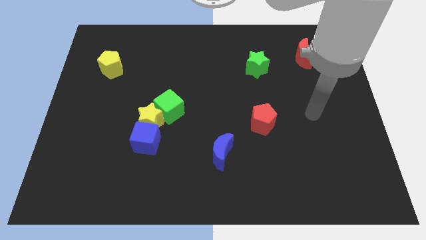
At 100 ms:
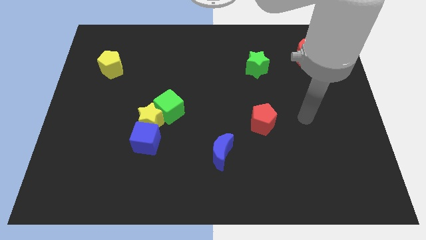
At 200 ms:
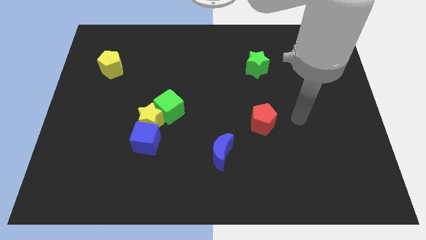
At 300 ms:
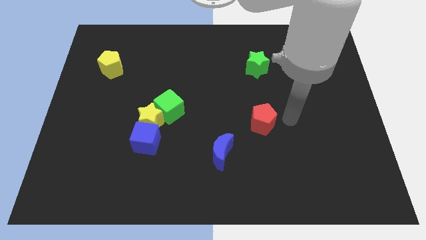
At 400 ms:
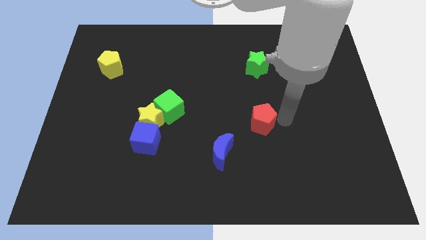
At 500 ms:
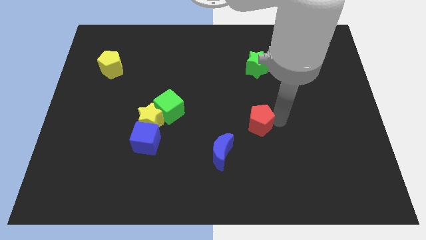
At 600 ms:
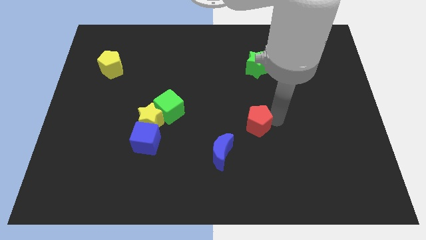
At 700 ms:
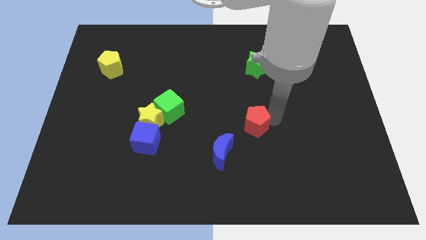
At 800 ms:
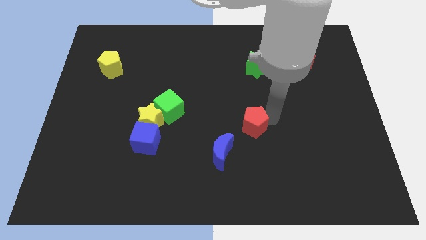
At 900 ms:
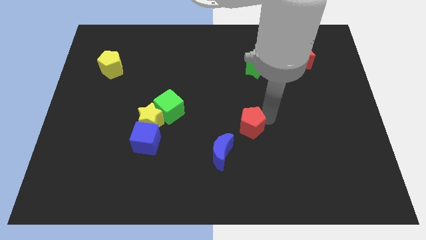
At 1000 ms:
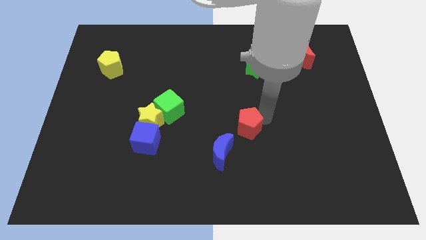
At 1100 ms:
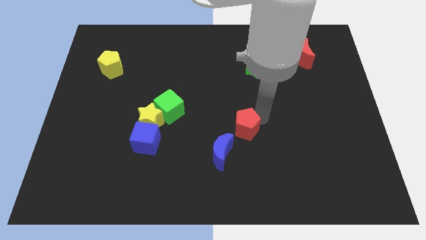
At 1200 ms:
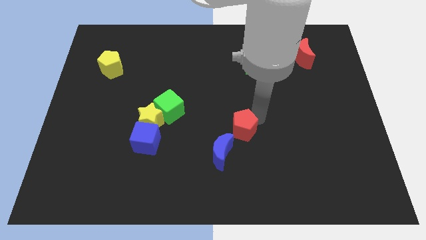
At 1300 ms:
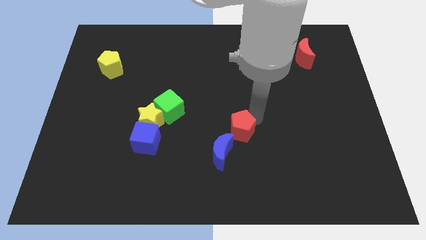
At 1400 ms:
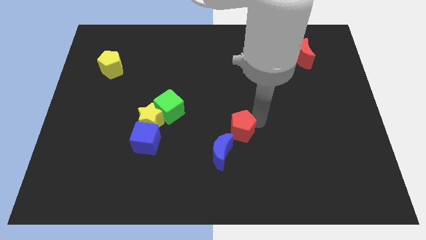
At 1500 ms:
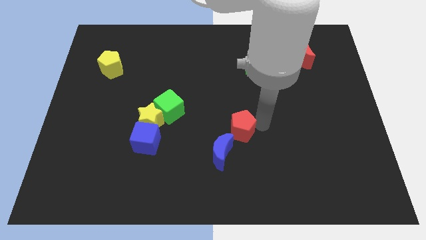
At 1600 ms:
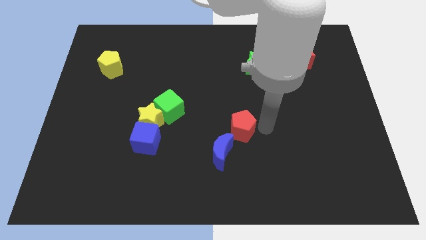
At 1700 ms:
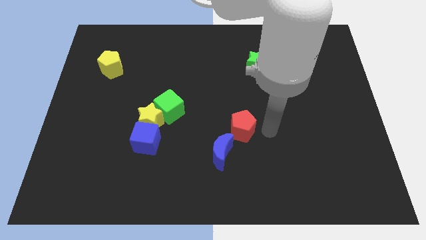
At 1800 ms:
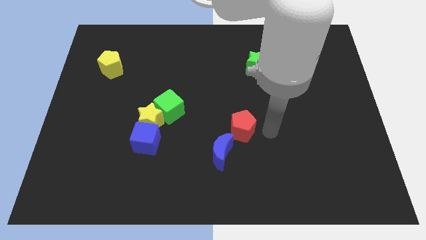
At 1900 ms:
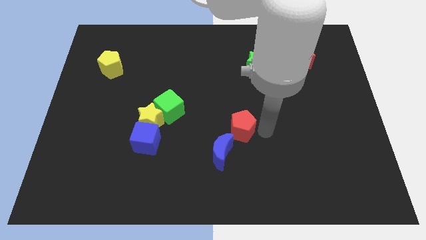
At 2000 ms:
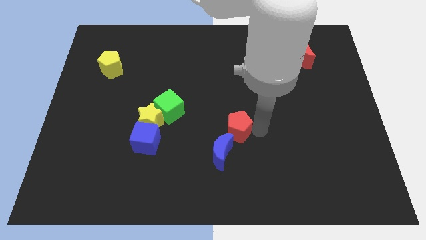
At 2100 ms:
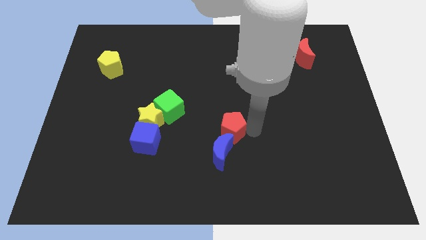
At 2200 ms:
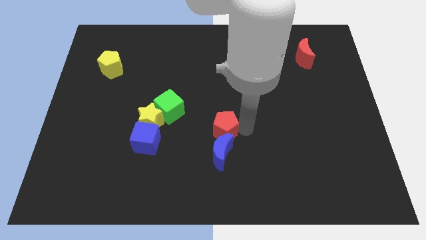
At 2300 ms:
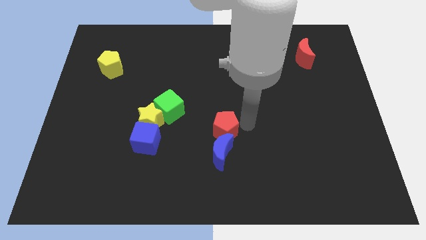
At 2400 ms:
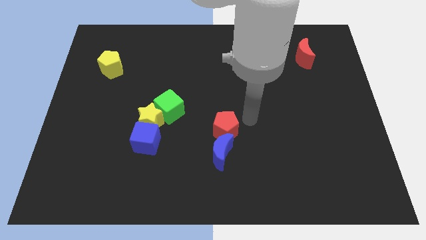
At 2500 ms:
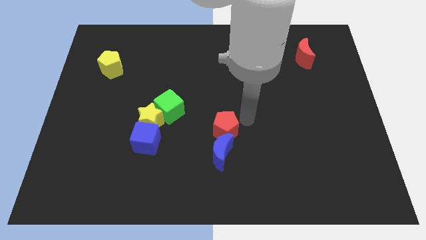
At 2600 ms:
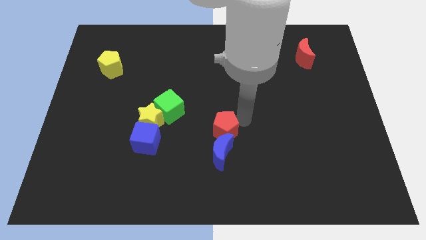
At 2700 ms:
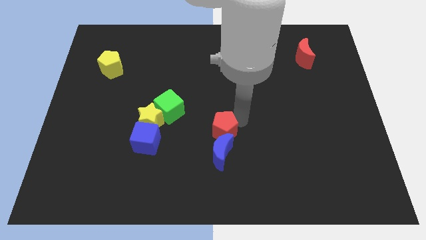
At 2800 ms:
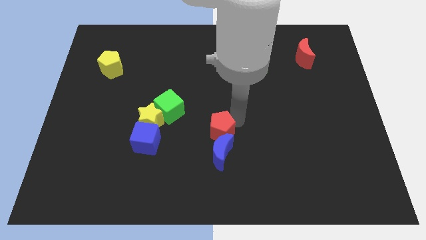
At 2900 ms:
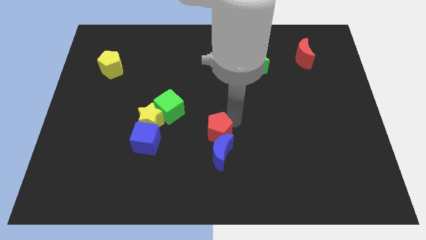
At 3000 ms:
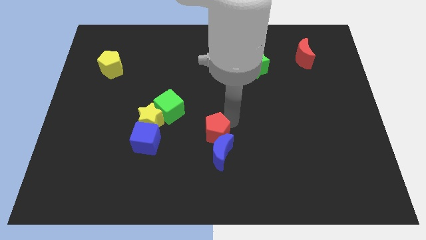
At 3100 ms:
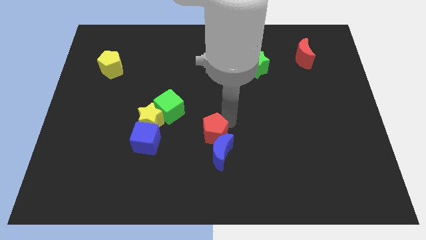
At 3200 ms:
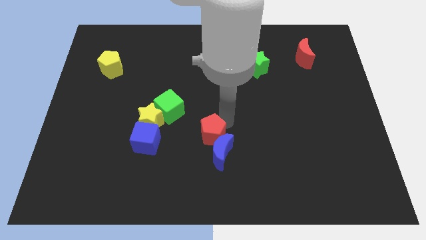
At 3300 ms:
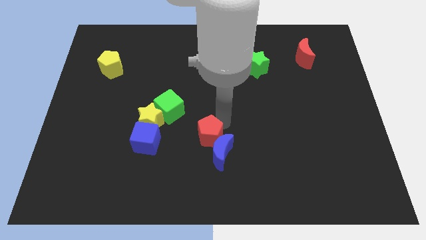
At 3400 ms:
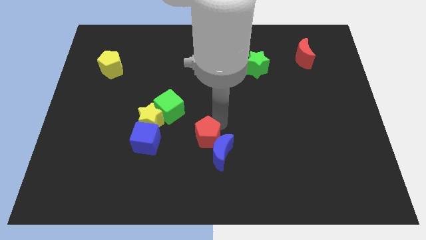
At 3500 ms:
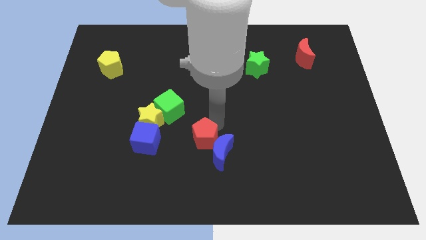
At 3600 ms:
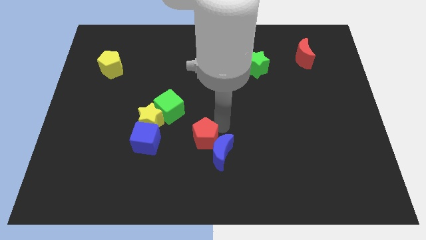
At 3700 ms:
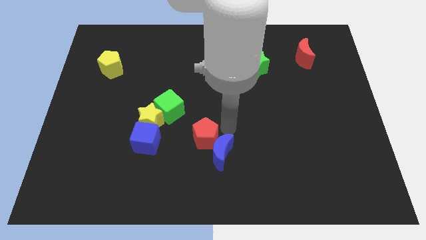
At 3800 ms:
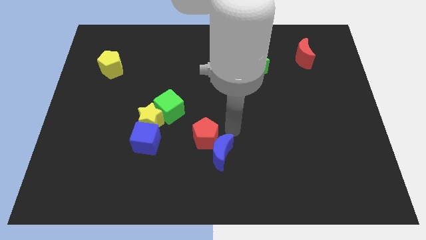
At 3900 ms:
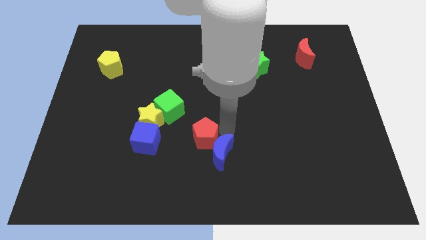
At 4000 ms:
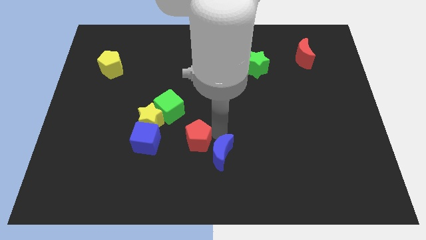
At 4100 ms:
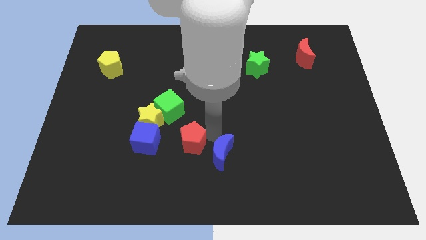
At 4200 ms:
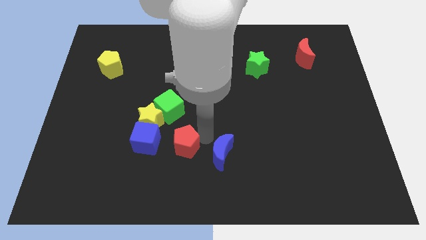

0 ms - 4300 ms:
move the red pentagon to the bottom side of the green cube

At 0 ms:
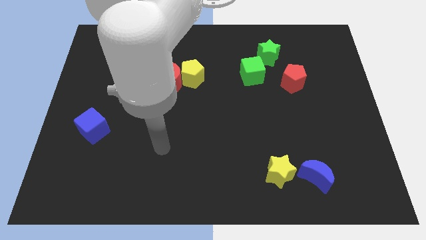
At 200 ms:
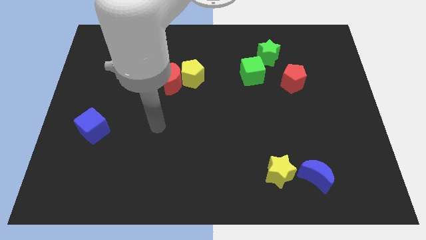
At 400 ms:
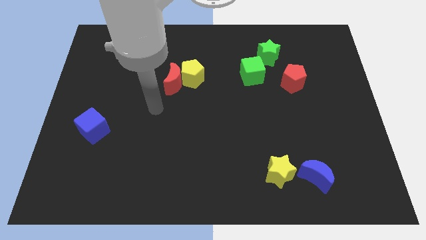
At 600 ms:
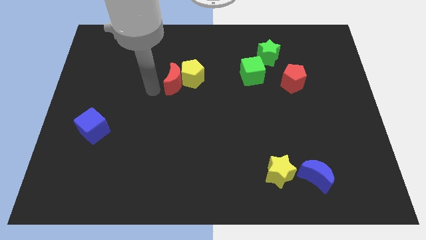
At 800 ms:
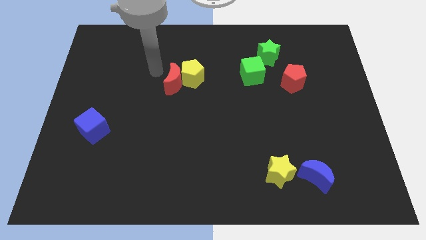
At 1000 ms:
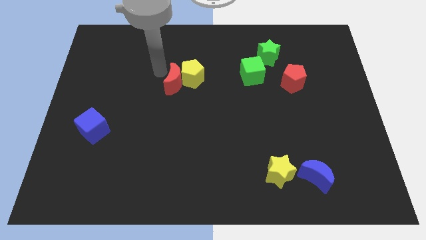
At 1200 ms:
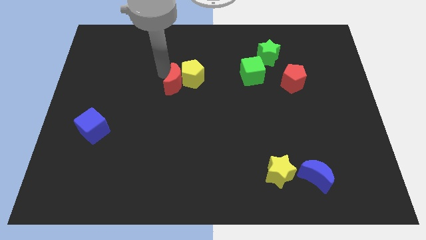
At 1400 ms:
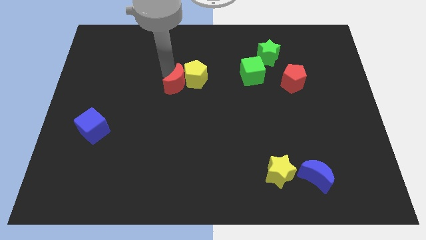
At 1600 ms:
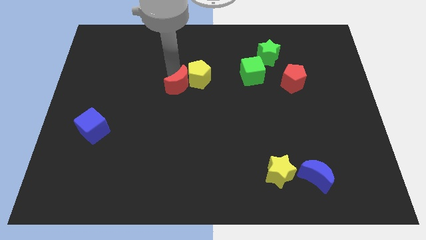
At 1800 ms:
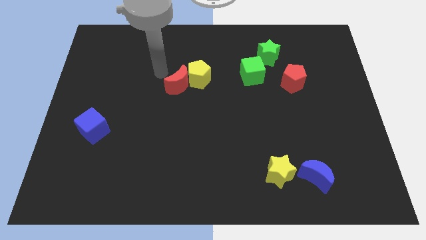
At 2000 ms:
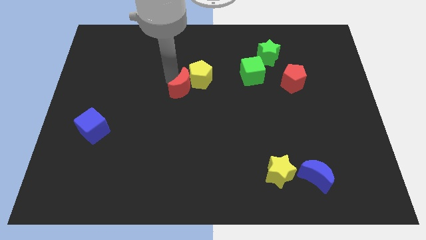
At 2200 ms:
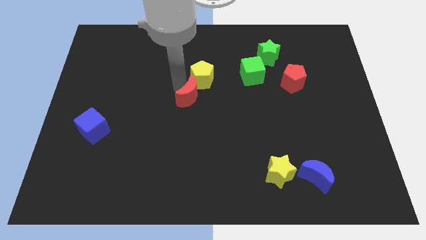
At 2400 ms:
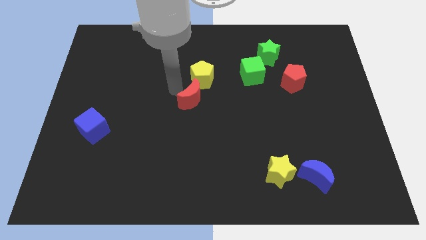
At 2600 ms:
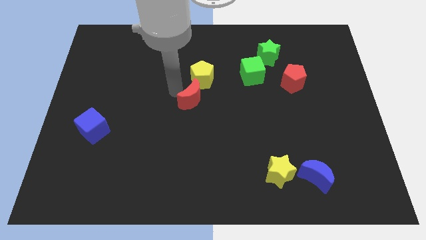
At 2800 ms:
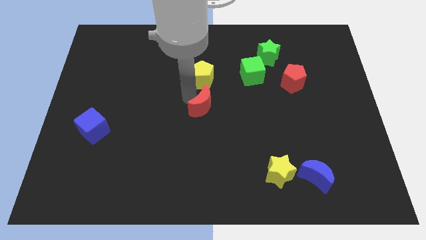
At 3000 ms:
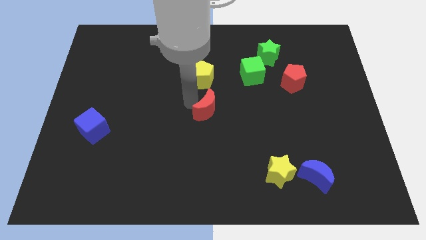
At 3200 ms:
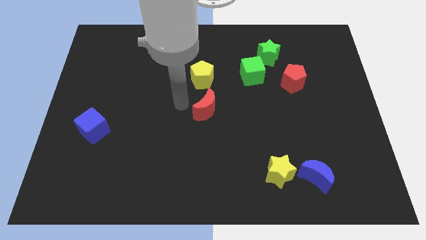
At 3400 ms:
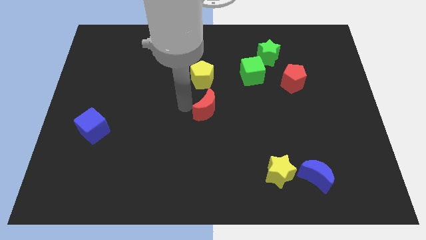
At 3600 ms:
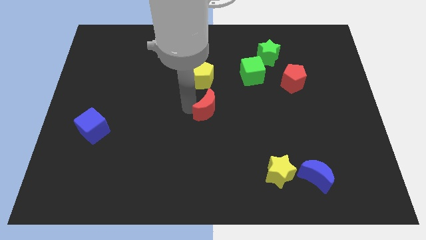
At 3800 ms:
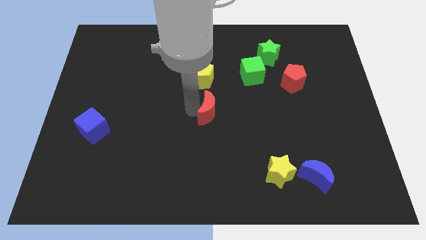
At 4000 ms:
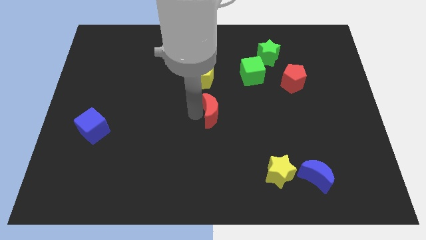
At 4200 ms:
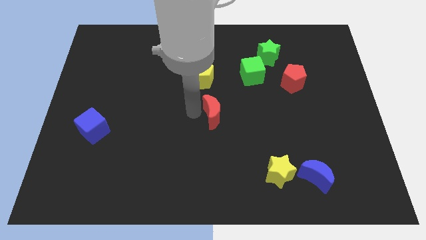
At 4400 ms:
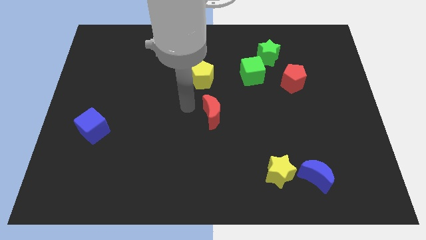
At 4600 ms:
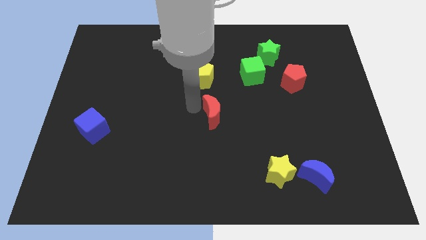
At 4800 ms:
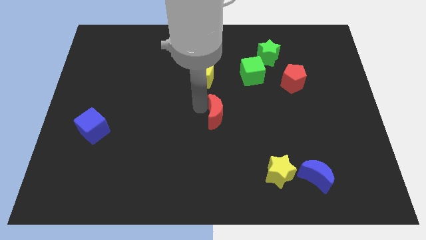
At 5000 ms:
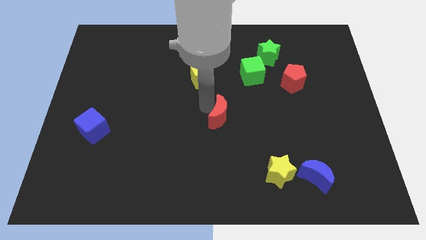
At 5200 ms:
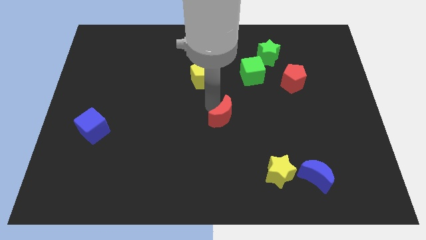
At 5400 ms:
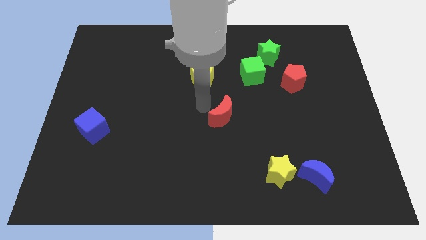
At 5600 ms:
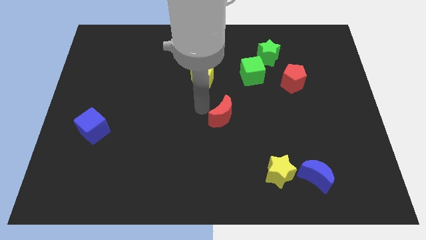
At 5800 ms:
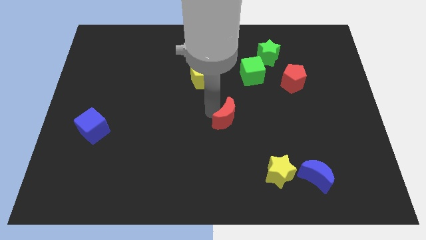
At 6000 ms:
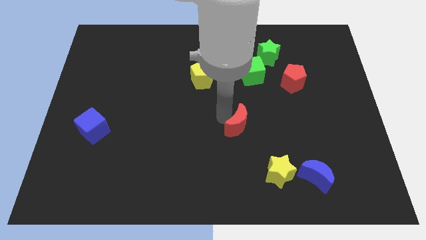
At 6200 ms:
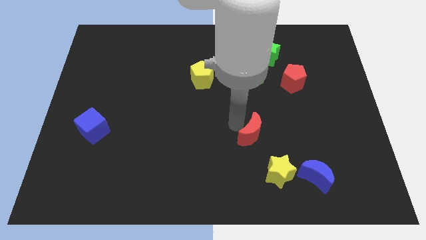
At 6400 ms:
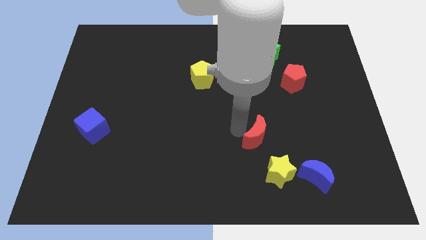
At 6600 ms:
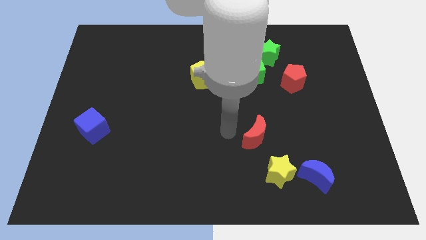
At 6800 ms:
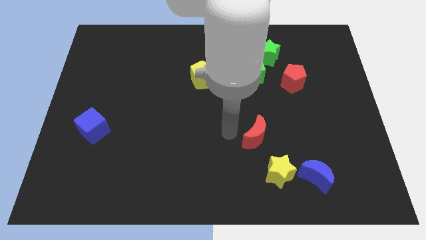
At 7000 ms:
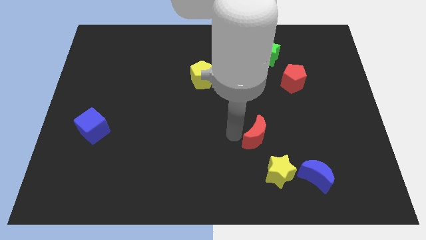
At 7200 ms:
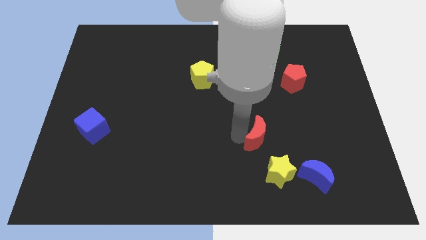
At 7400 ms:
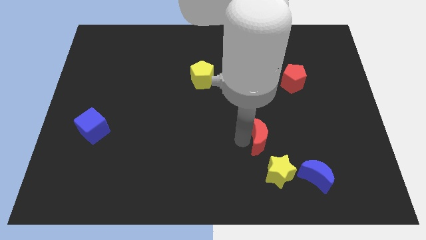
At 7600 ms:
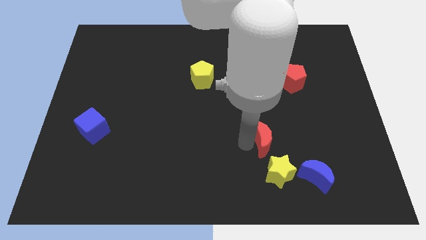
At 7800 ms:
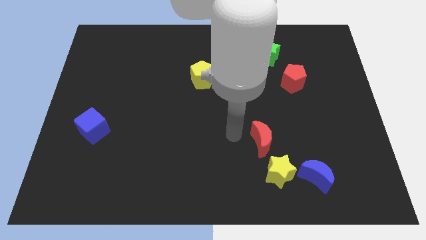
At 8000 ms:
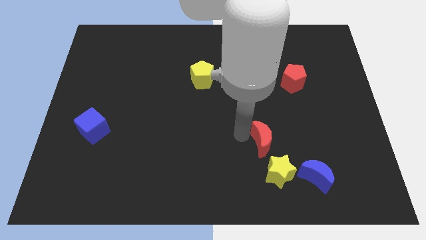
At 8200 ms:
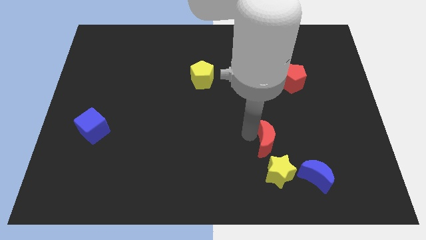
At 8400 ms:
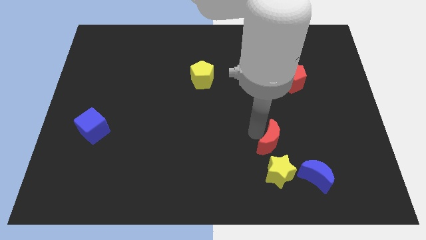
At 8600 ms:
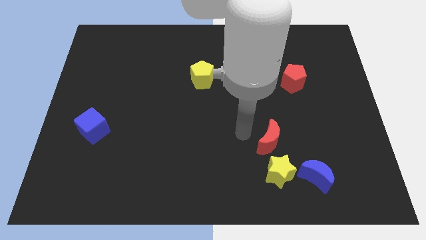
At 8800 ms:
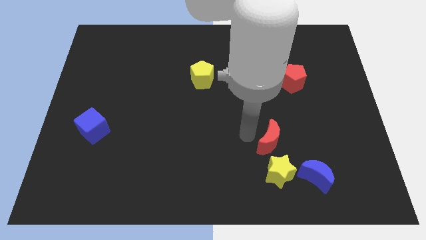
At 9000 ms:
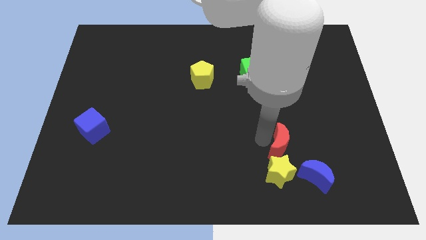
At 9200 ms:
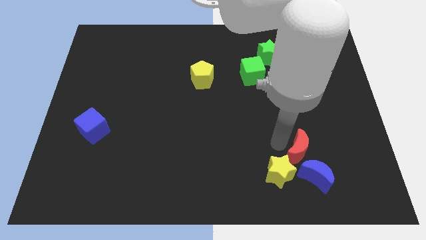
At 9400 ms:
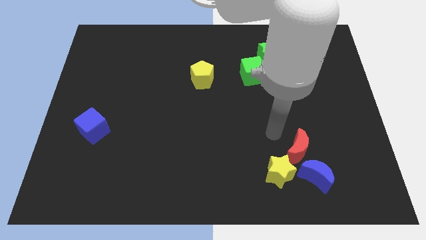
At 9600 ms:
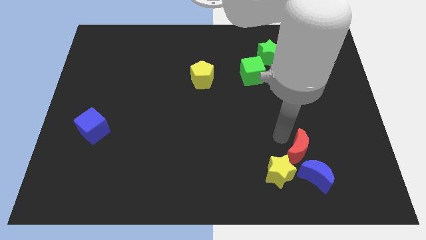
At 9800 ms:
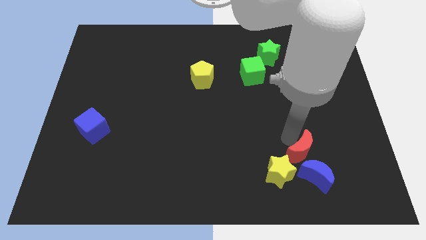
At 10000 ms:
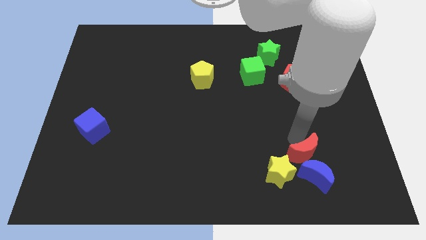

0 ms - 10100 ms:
move the red moon right of the yellow star
